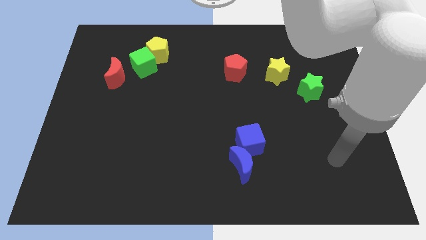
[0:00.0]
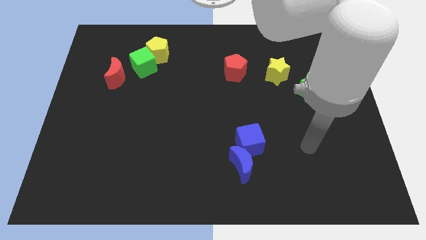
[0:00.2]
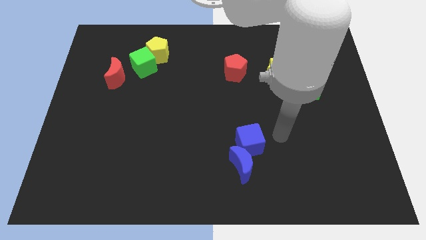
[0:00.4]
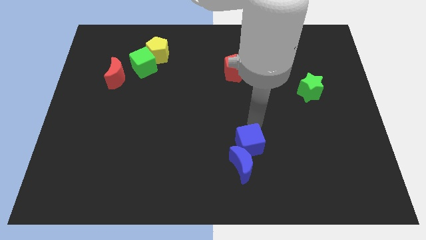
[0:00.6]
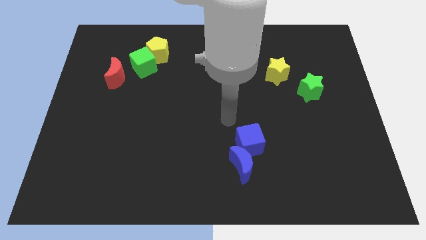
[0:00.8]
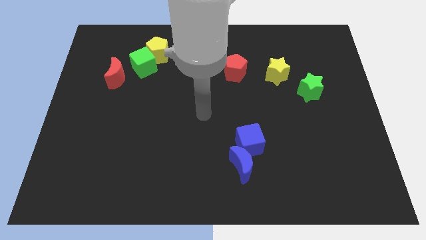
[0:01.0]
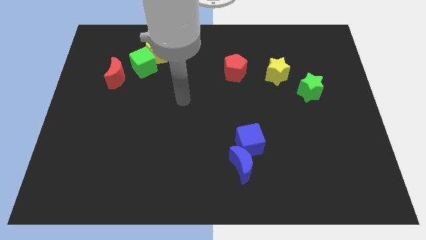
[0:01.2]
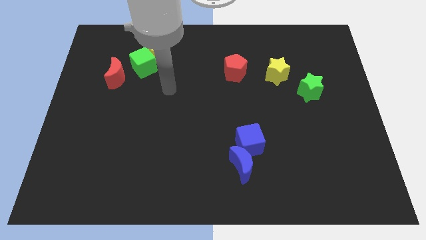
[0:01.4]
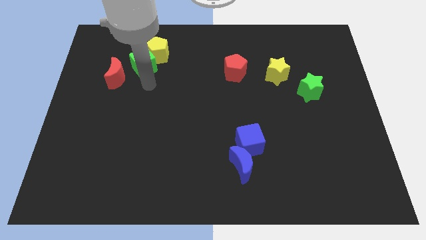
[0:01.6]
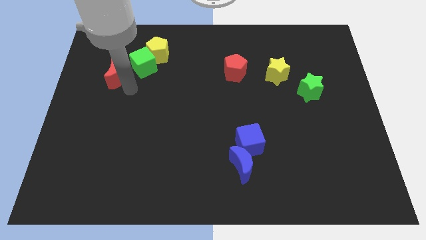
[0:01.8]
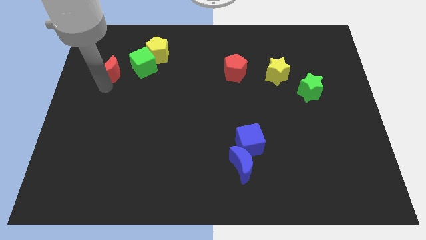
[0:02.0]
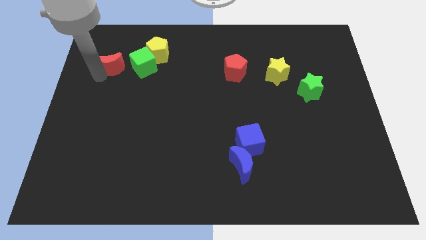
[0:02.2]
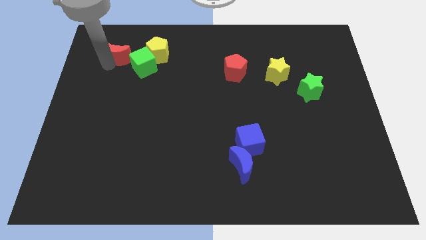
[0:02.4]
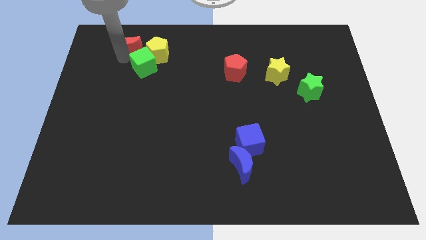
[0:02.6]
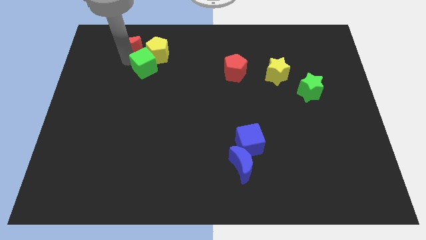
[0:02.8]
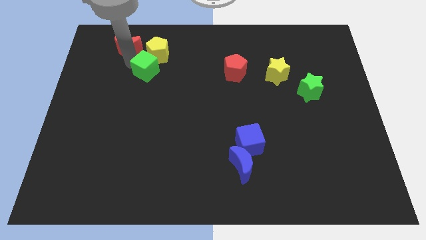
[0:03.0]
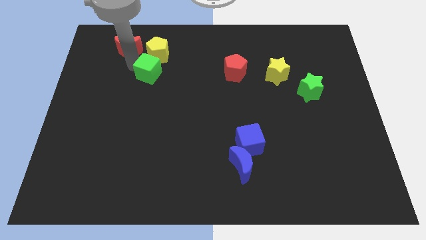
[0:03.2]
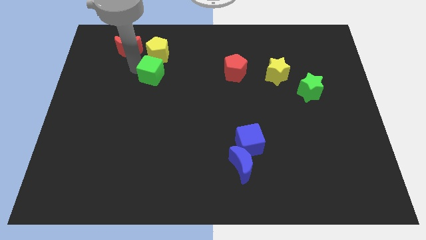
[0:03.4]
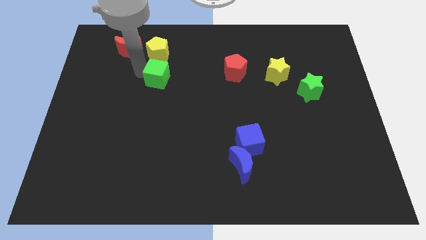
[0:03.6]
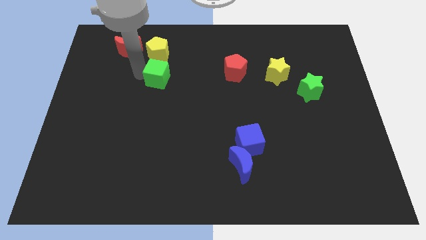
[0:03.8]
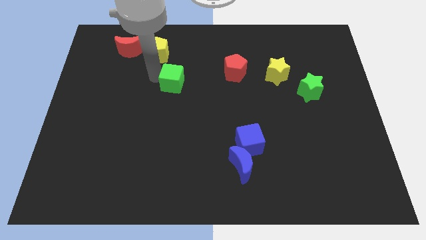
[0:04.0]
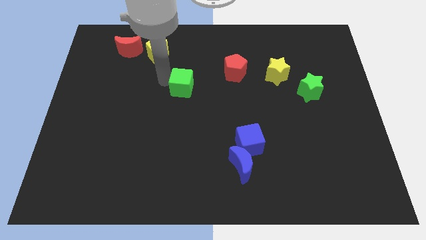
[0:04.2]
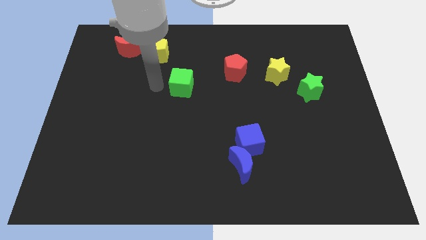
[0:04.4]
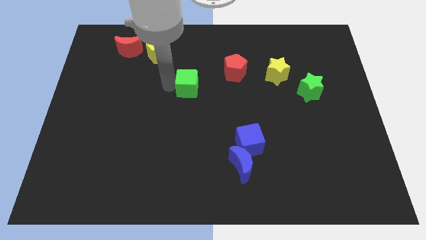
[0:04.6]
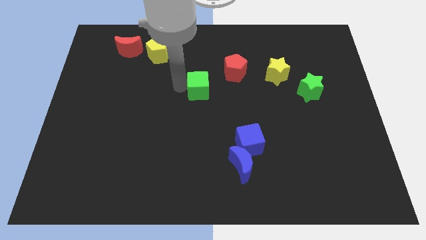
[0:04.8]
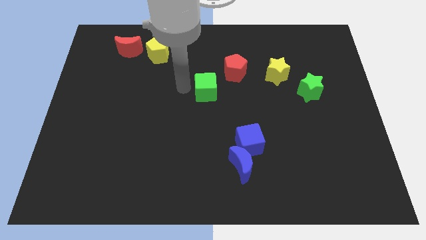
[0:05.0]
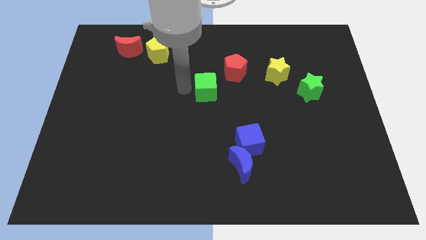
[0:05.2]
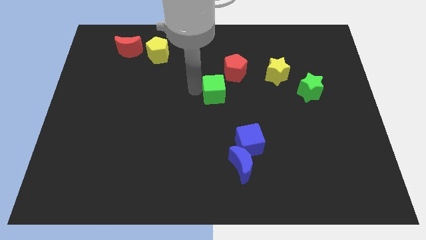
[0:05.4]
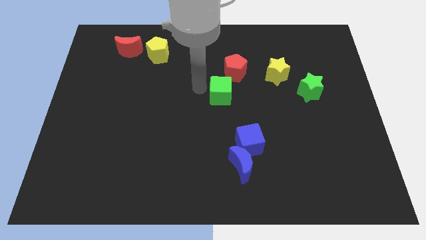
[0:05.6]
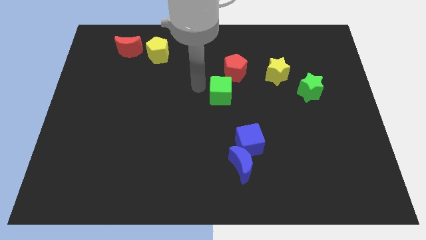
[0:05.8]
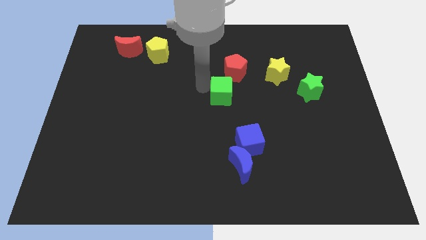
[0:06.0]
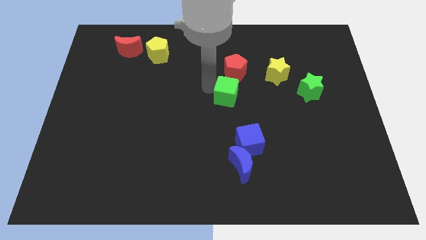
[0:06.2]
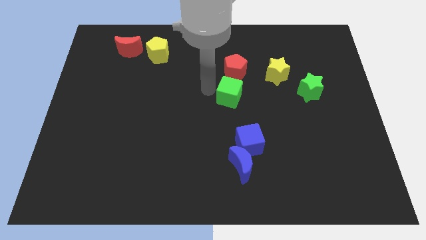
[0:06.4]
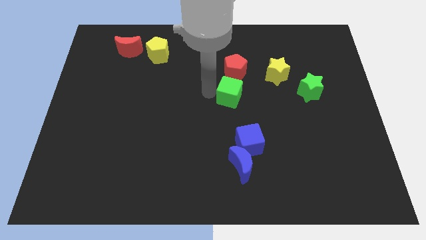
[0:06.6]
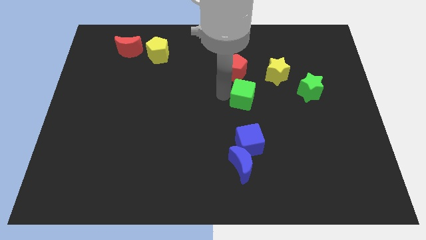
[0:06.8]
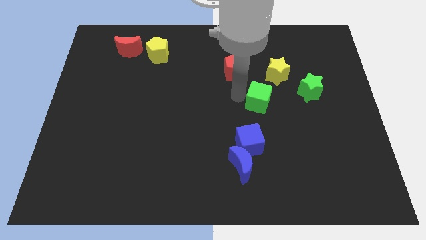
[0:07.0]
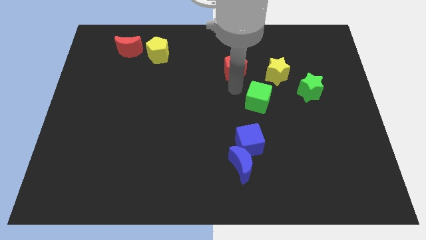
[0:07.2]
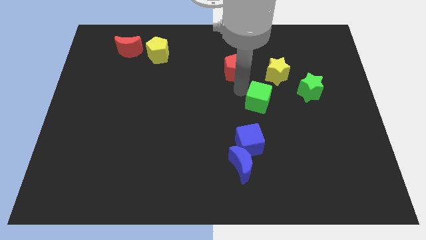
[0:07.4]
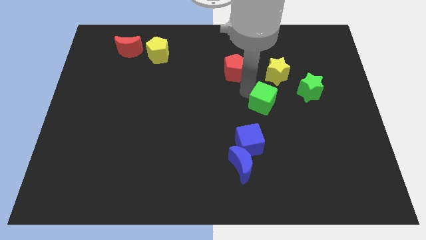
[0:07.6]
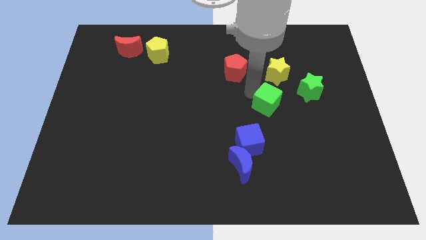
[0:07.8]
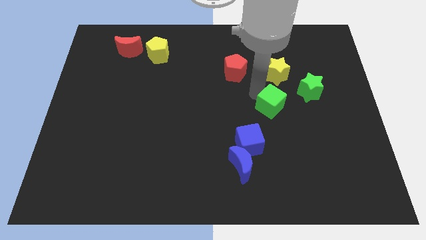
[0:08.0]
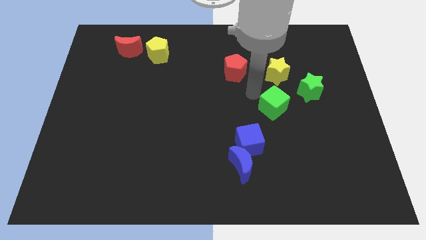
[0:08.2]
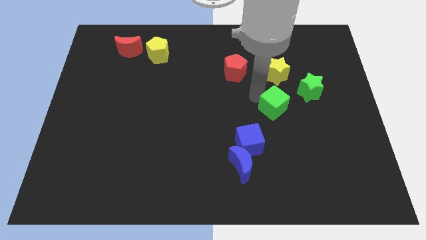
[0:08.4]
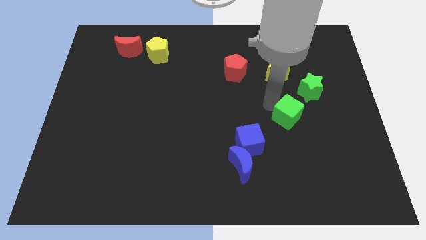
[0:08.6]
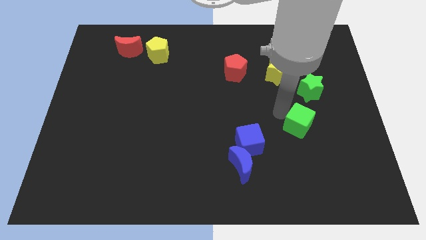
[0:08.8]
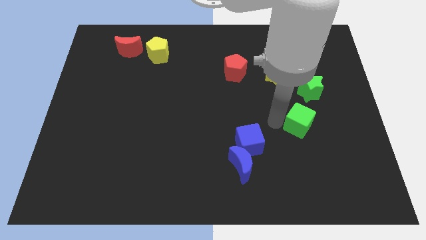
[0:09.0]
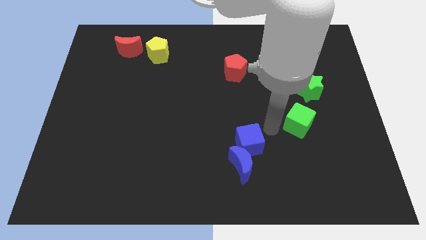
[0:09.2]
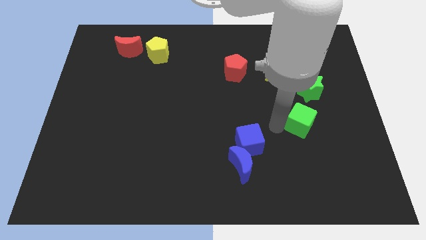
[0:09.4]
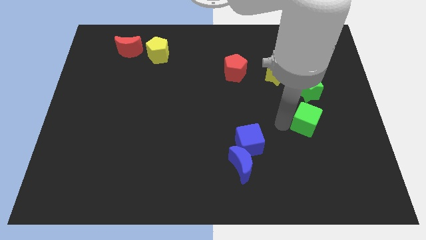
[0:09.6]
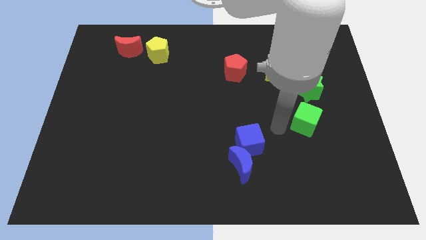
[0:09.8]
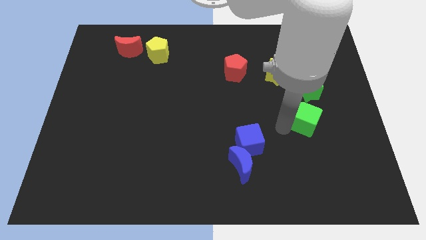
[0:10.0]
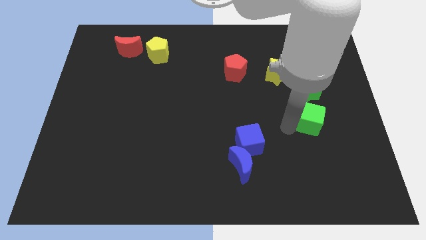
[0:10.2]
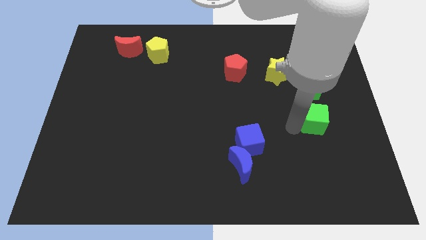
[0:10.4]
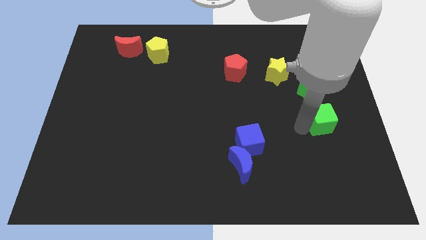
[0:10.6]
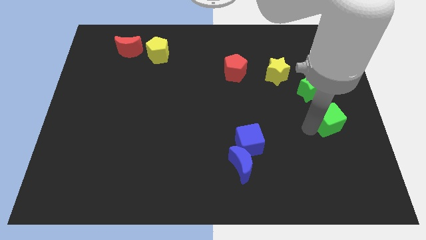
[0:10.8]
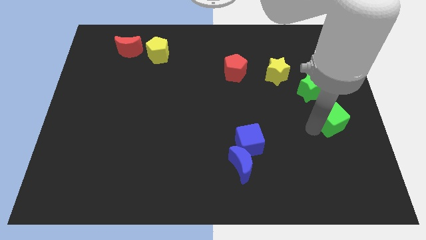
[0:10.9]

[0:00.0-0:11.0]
slide the green cube to the right side of the board

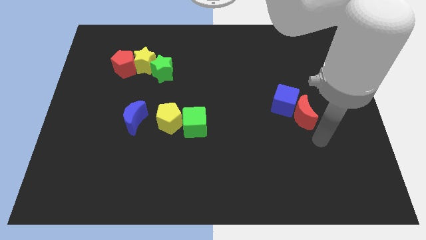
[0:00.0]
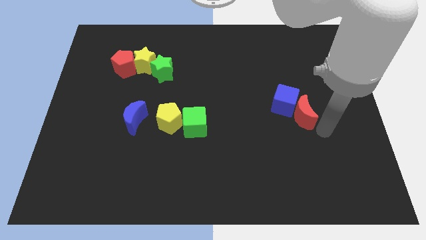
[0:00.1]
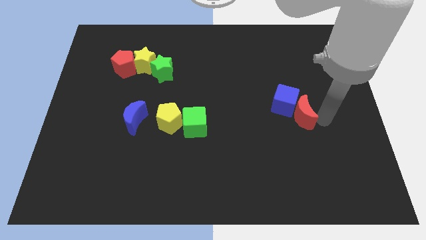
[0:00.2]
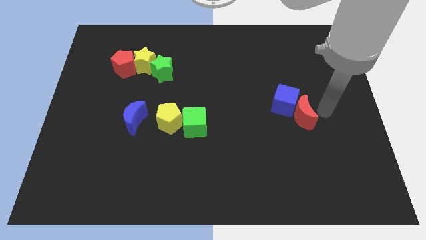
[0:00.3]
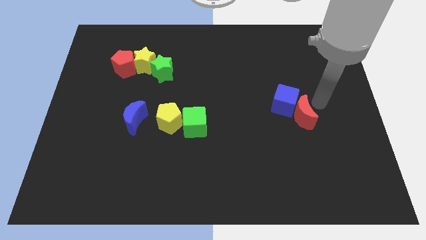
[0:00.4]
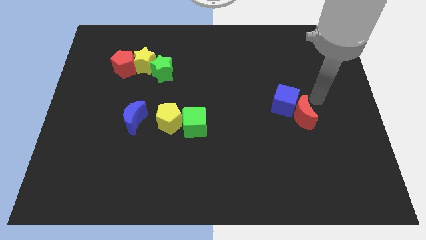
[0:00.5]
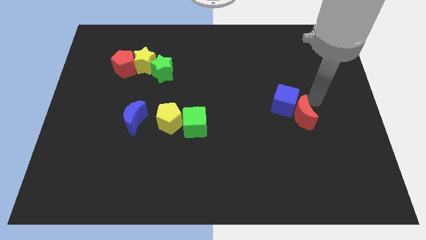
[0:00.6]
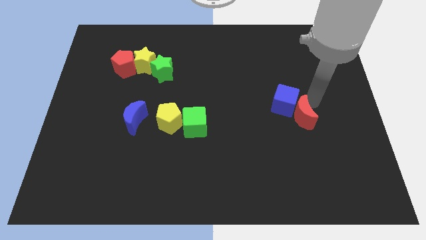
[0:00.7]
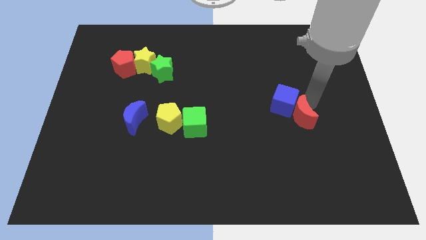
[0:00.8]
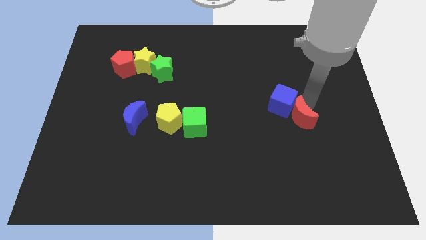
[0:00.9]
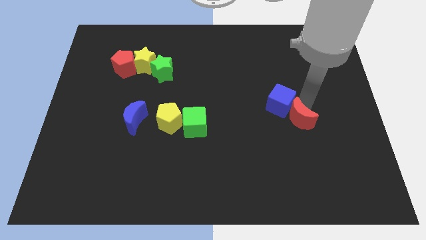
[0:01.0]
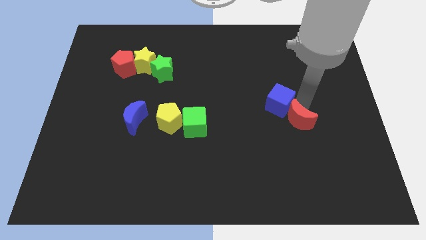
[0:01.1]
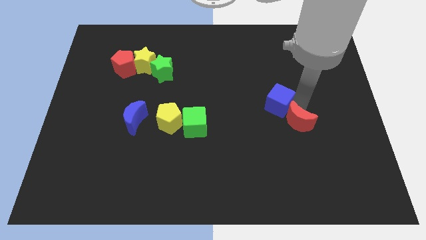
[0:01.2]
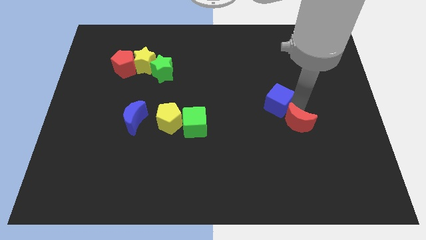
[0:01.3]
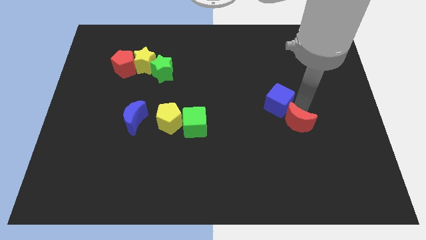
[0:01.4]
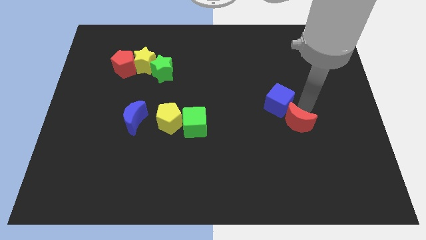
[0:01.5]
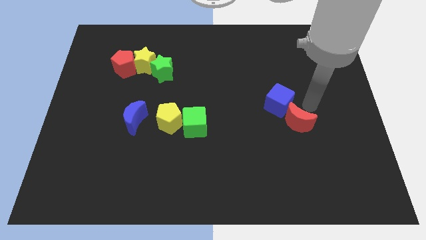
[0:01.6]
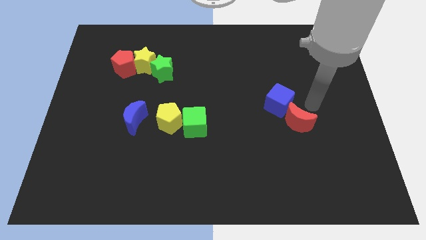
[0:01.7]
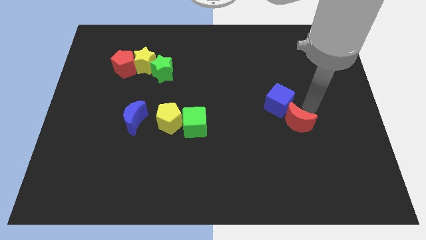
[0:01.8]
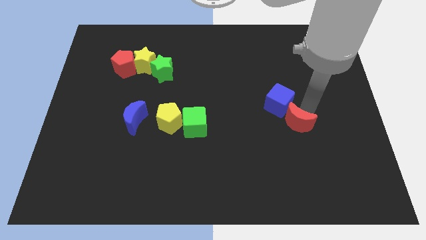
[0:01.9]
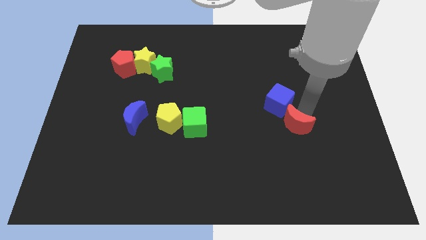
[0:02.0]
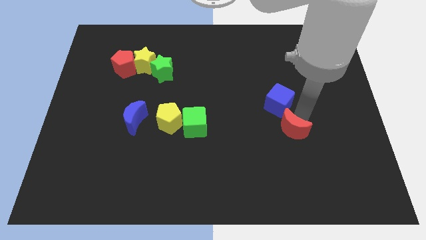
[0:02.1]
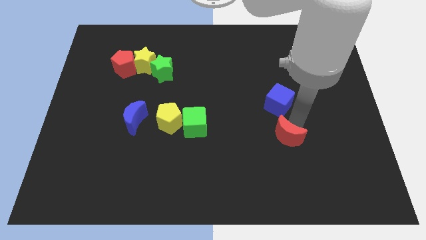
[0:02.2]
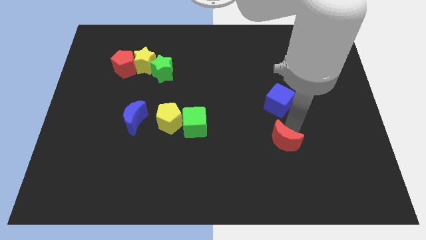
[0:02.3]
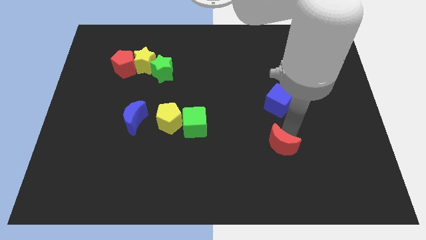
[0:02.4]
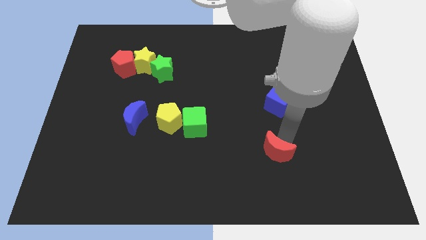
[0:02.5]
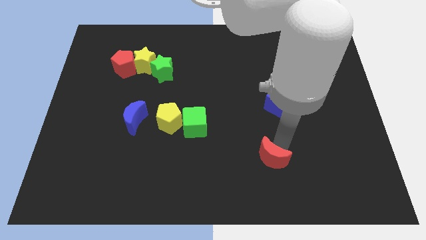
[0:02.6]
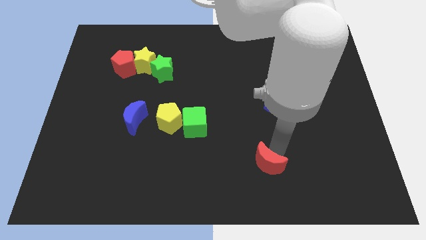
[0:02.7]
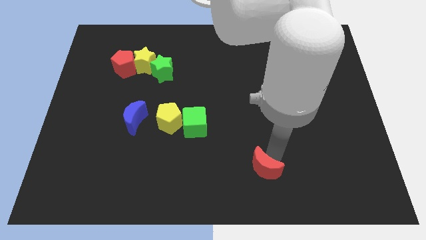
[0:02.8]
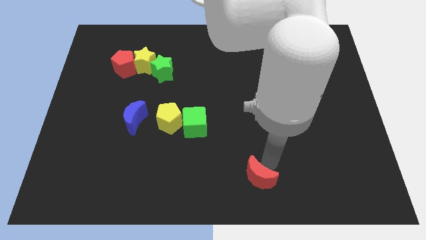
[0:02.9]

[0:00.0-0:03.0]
move the red moon to the bottom side
